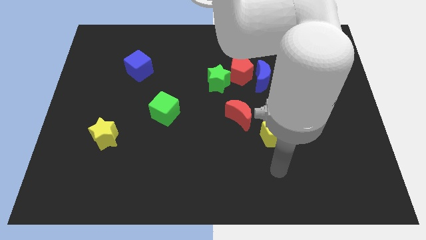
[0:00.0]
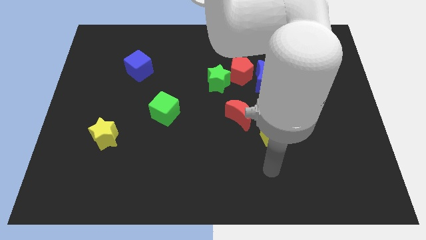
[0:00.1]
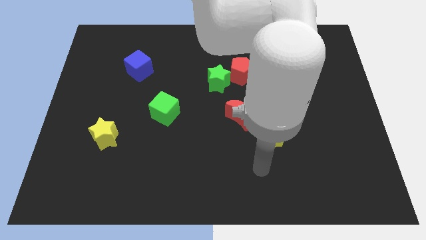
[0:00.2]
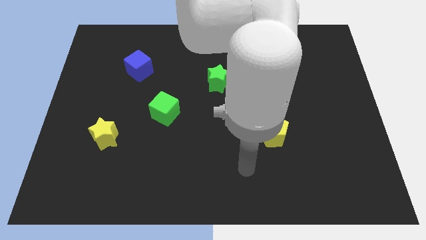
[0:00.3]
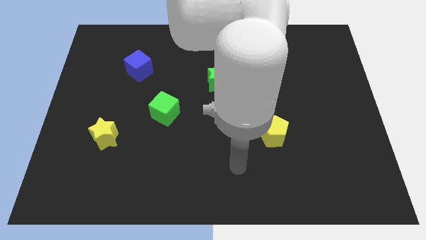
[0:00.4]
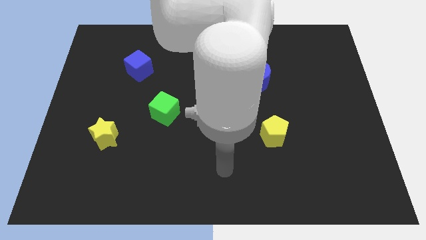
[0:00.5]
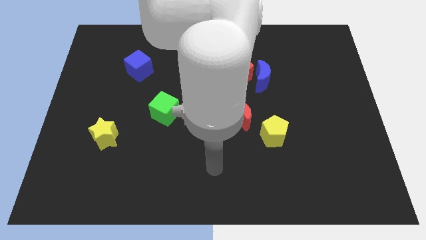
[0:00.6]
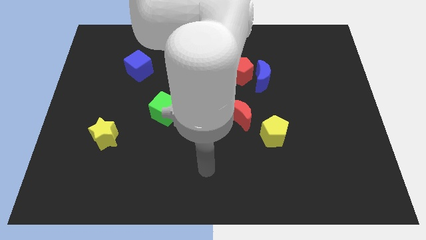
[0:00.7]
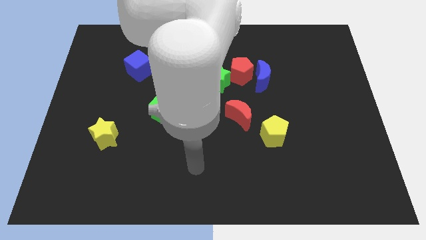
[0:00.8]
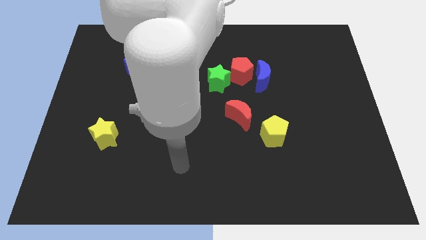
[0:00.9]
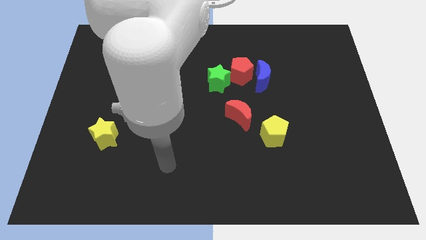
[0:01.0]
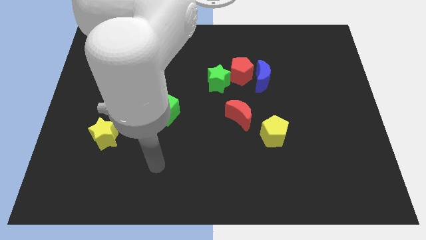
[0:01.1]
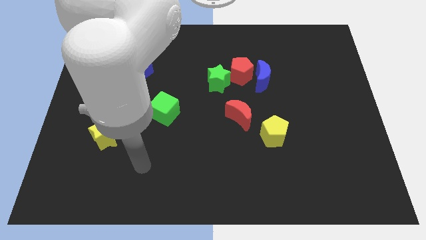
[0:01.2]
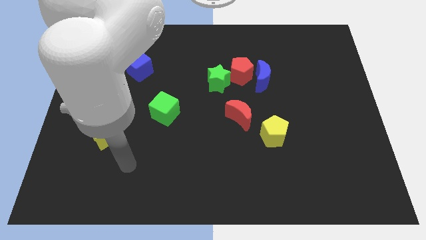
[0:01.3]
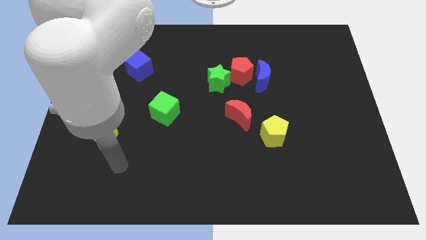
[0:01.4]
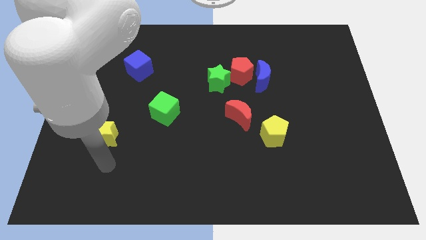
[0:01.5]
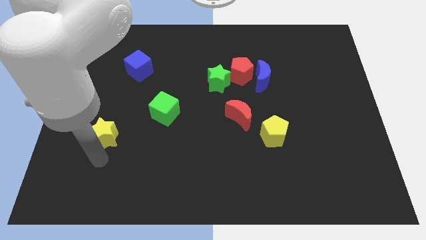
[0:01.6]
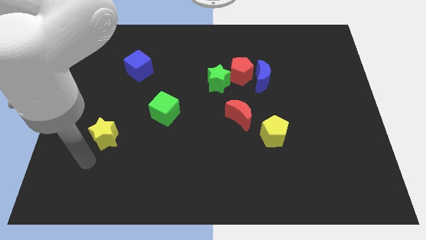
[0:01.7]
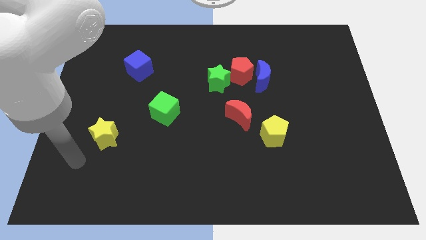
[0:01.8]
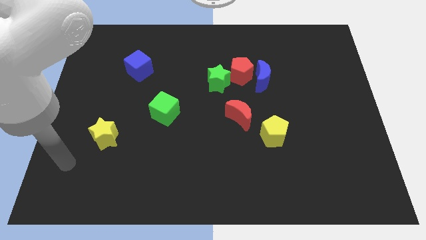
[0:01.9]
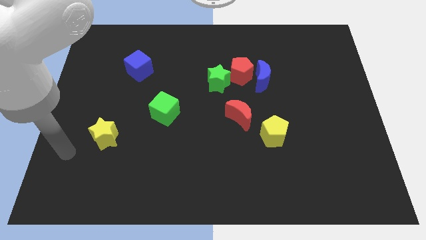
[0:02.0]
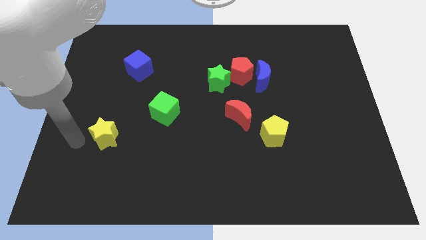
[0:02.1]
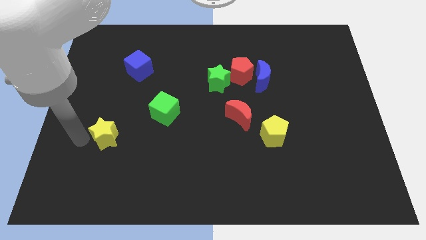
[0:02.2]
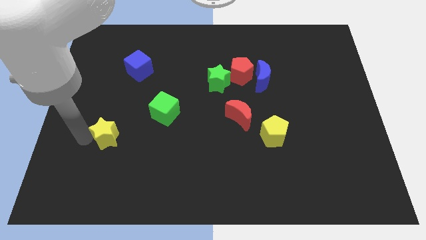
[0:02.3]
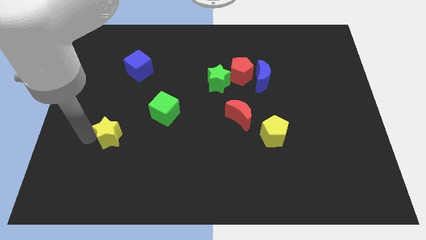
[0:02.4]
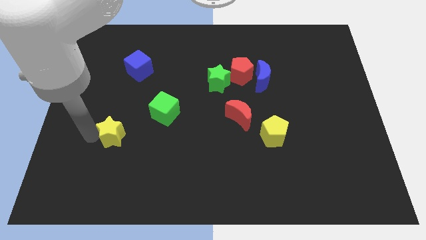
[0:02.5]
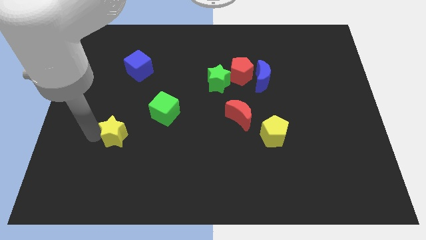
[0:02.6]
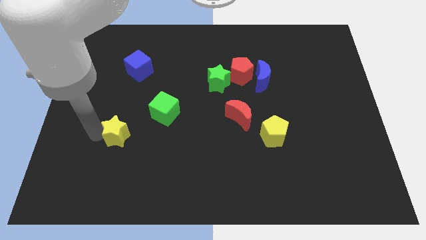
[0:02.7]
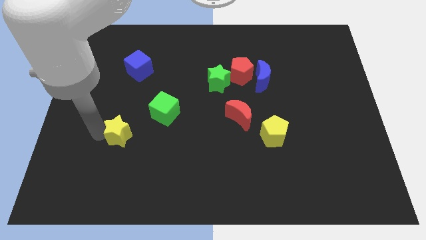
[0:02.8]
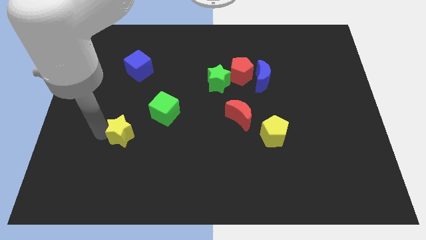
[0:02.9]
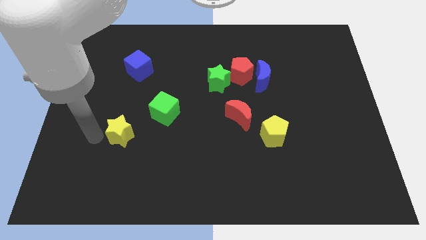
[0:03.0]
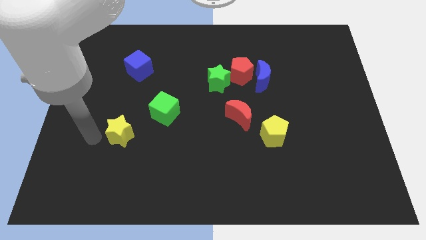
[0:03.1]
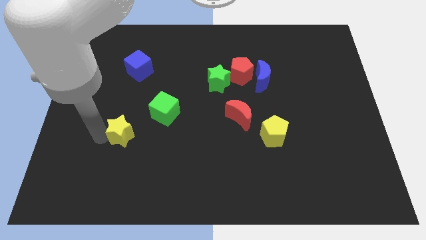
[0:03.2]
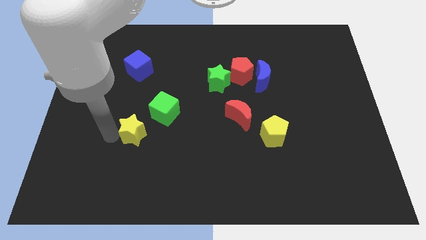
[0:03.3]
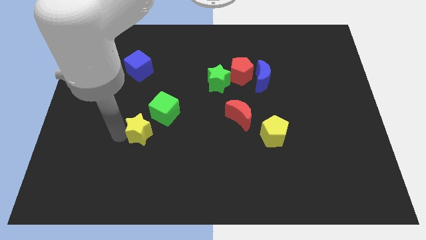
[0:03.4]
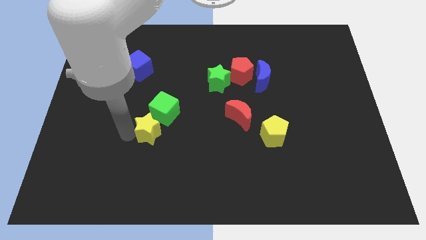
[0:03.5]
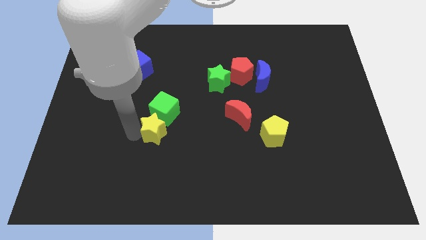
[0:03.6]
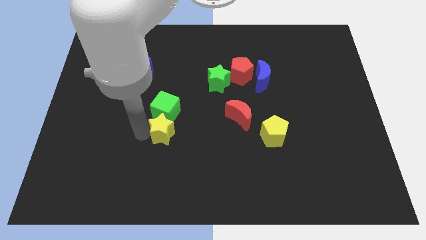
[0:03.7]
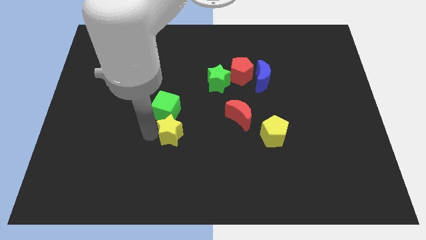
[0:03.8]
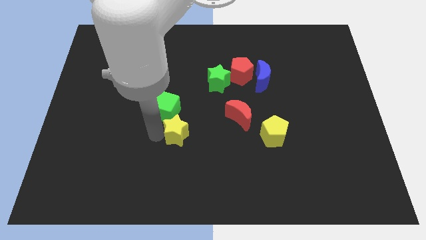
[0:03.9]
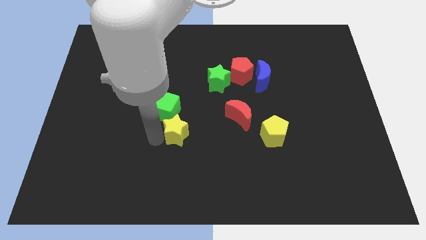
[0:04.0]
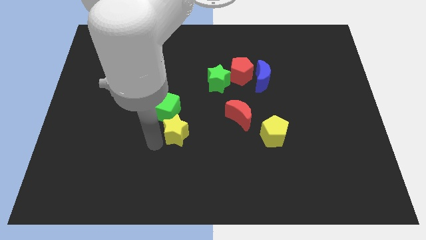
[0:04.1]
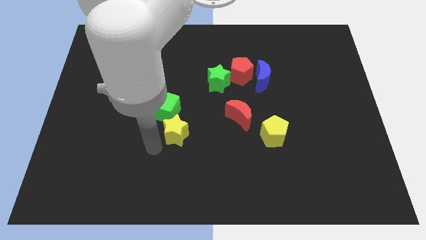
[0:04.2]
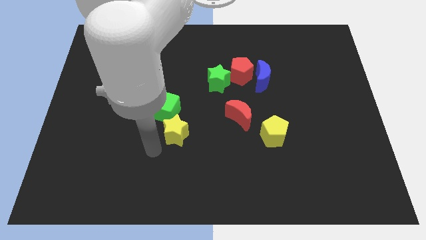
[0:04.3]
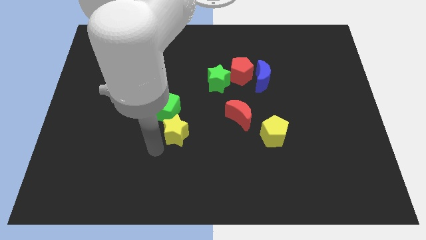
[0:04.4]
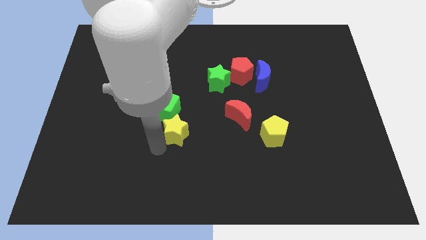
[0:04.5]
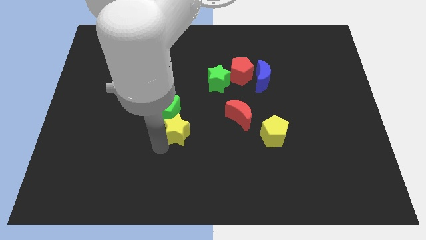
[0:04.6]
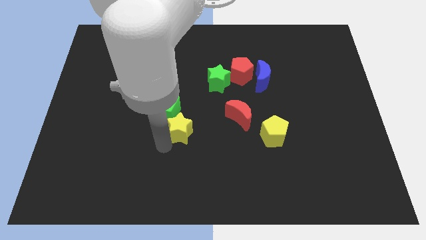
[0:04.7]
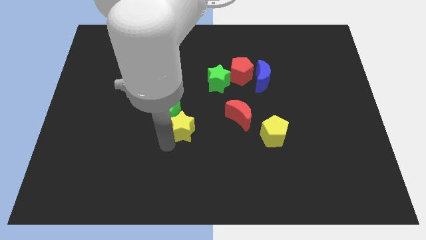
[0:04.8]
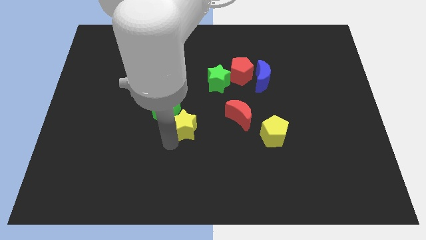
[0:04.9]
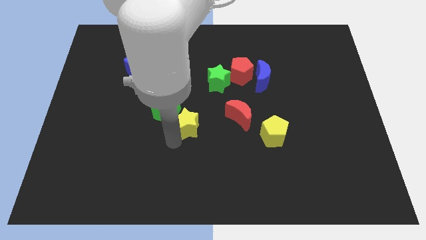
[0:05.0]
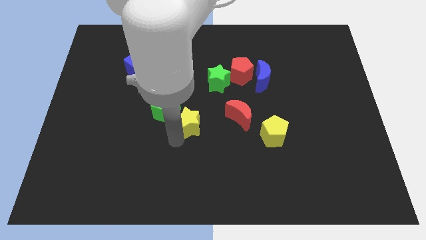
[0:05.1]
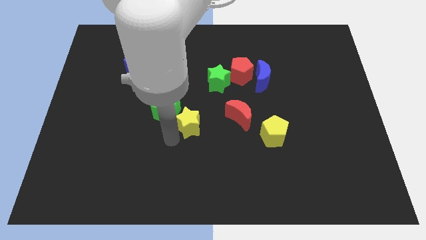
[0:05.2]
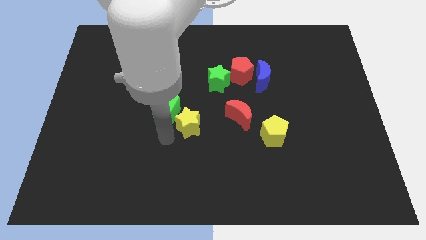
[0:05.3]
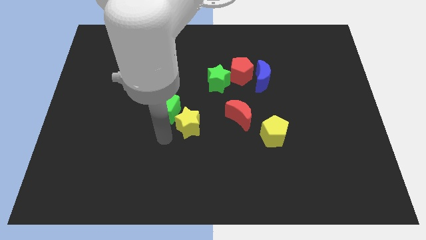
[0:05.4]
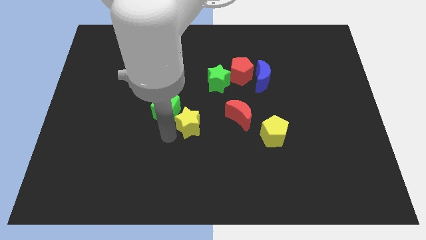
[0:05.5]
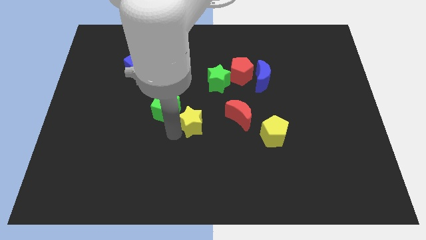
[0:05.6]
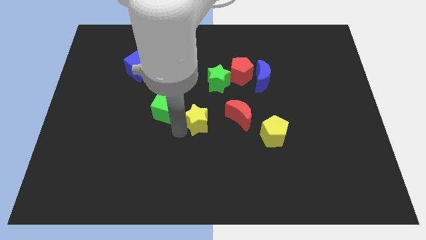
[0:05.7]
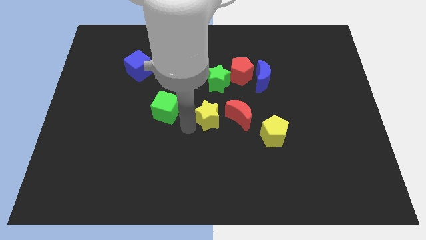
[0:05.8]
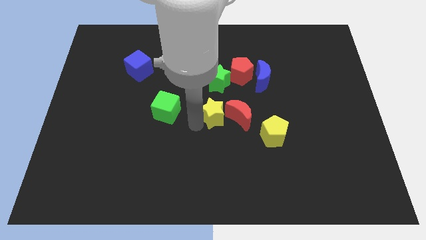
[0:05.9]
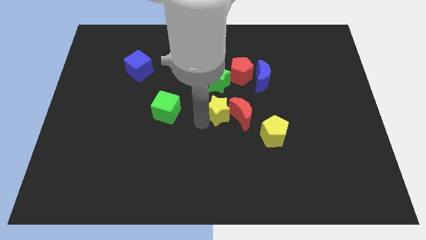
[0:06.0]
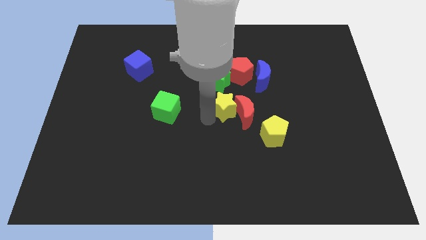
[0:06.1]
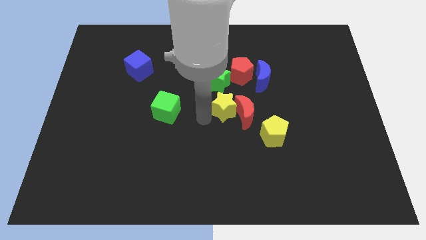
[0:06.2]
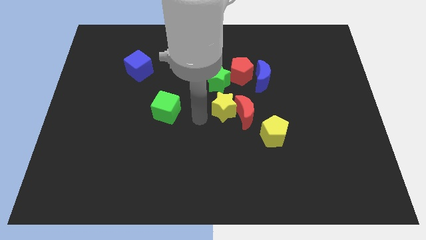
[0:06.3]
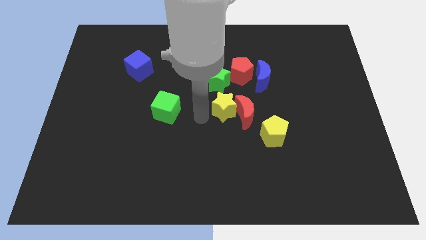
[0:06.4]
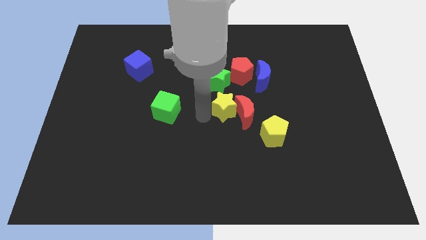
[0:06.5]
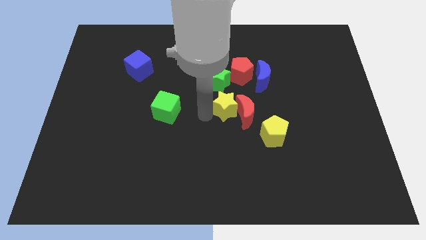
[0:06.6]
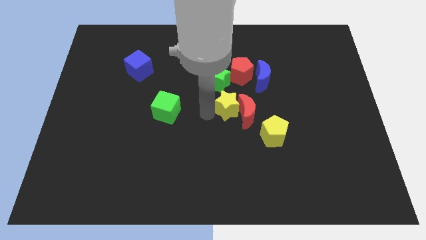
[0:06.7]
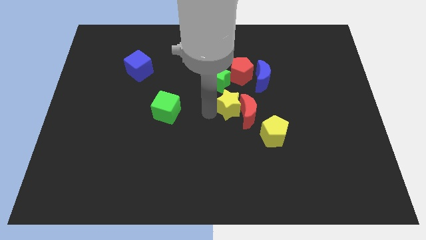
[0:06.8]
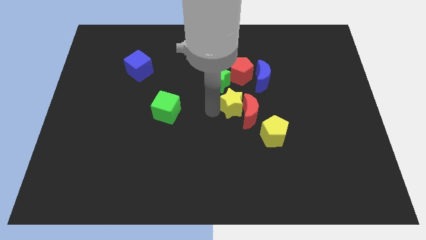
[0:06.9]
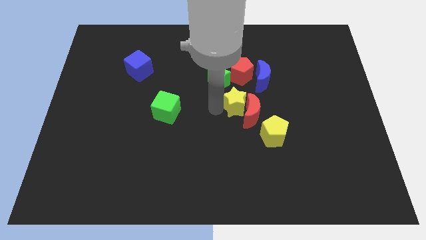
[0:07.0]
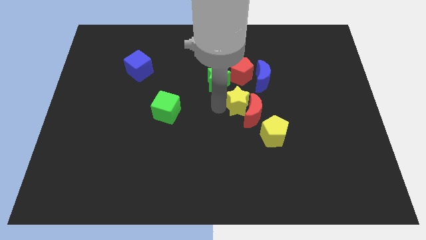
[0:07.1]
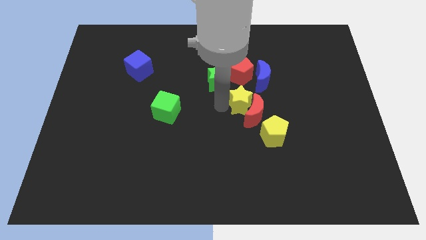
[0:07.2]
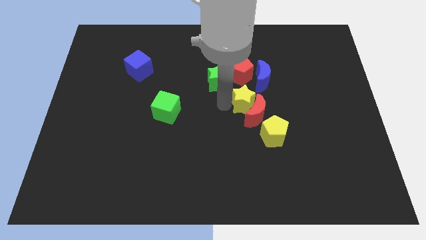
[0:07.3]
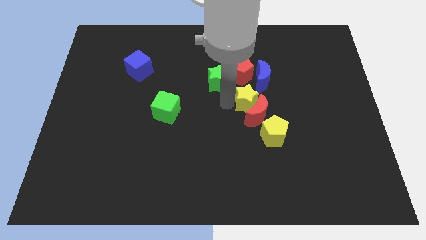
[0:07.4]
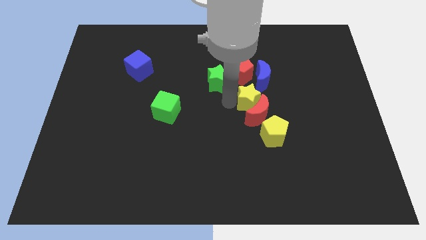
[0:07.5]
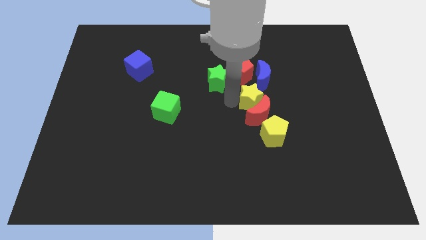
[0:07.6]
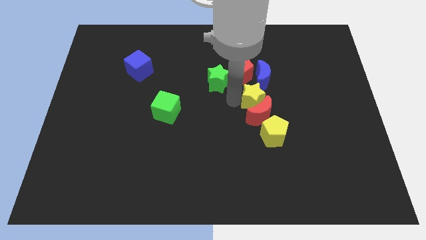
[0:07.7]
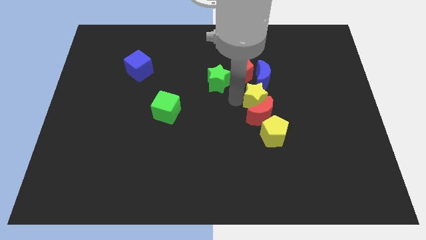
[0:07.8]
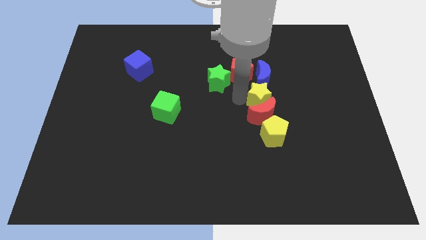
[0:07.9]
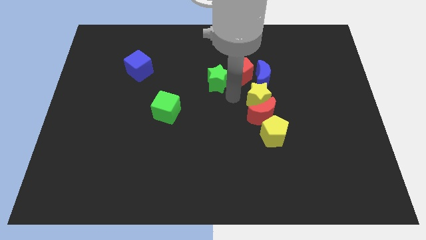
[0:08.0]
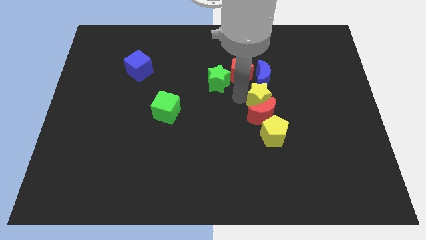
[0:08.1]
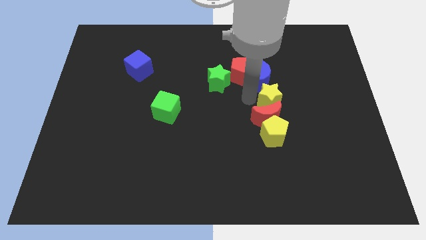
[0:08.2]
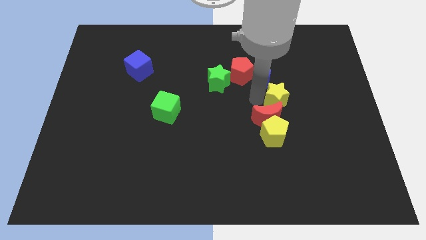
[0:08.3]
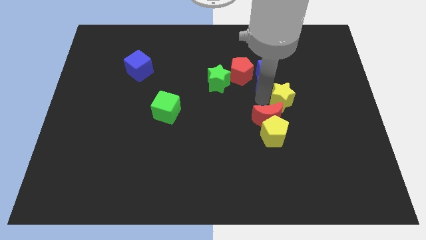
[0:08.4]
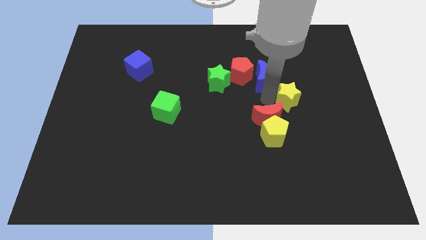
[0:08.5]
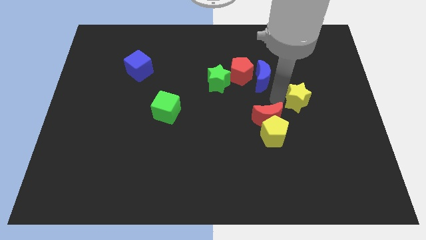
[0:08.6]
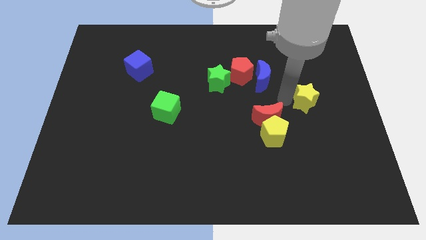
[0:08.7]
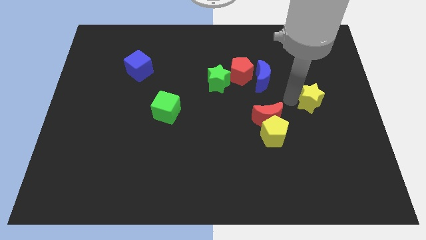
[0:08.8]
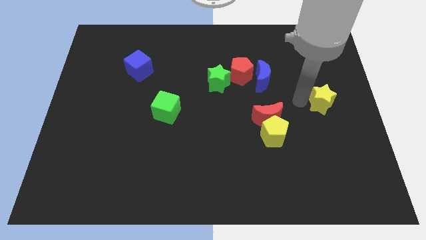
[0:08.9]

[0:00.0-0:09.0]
slide the yellow star to the right side of the board
